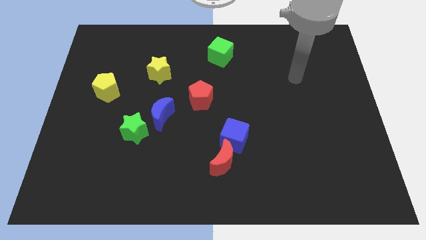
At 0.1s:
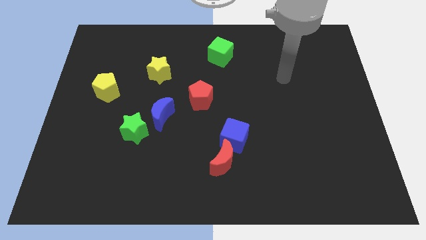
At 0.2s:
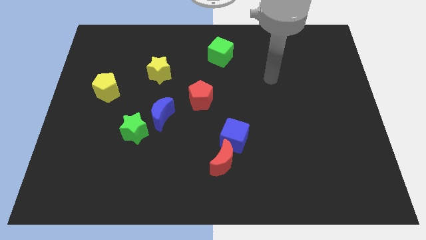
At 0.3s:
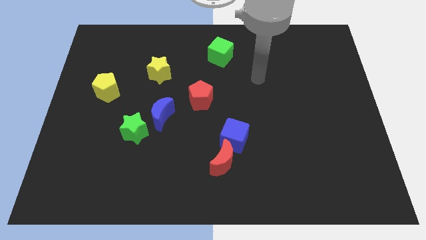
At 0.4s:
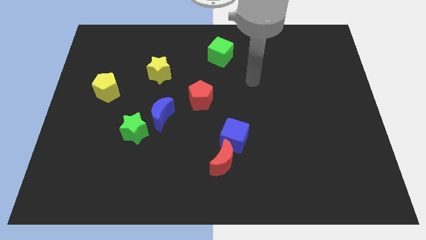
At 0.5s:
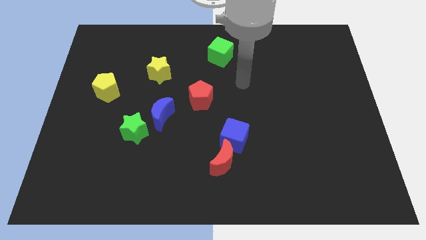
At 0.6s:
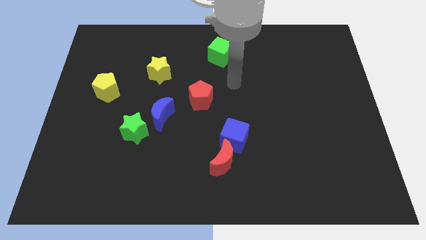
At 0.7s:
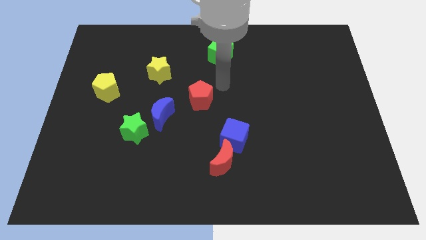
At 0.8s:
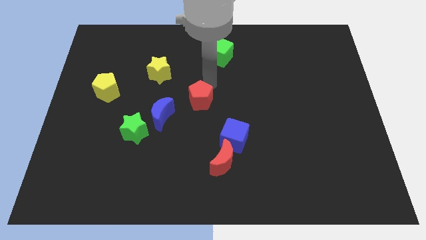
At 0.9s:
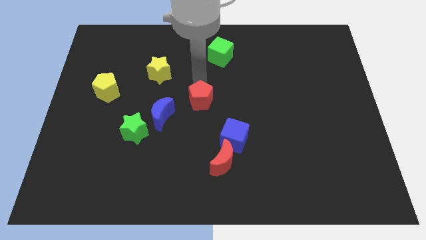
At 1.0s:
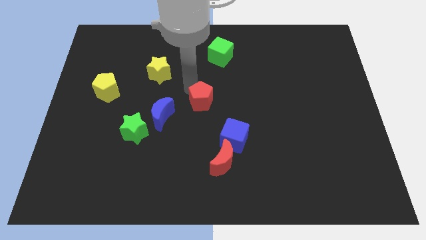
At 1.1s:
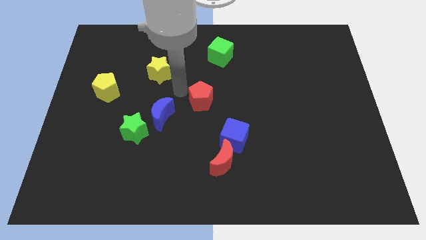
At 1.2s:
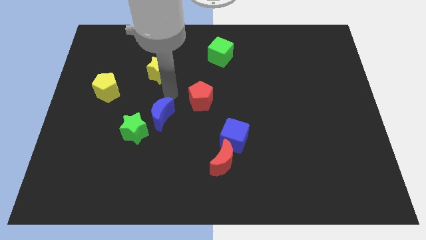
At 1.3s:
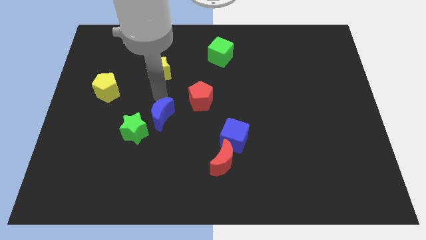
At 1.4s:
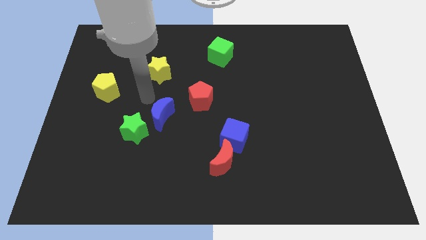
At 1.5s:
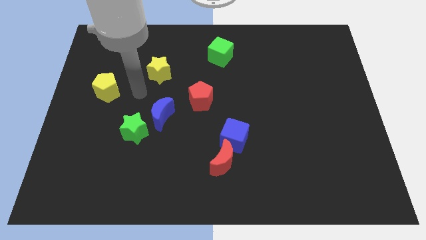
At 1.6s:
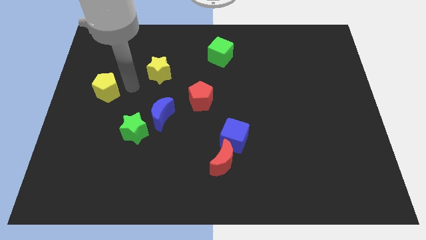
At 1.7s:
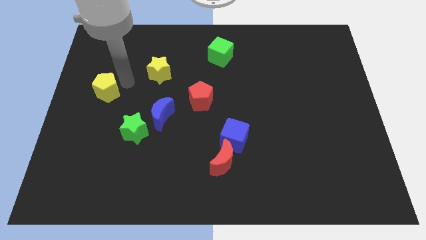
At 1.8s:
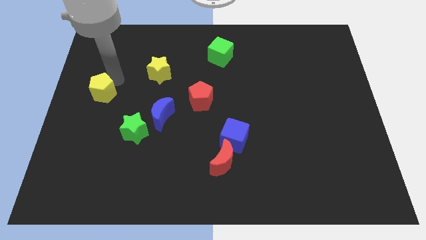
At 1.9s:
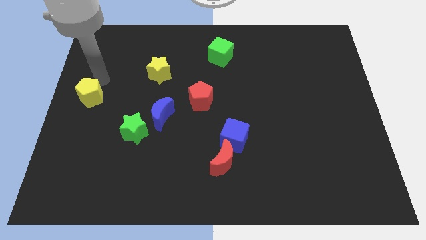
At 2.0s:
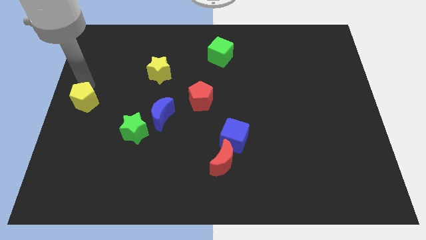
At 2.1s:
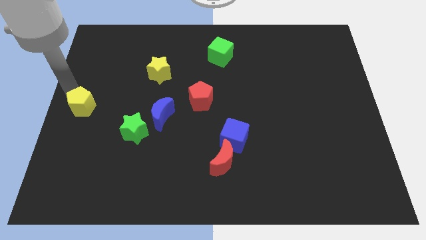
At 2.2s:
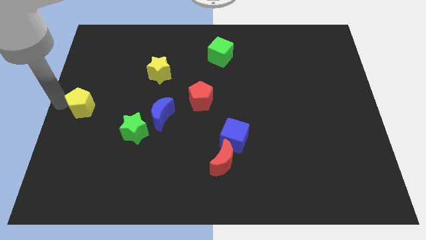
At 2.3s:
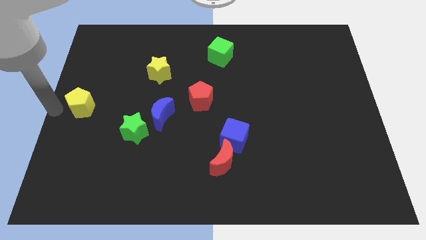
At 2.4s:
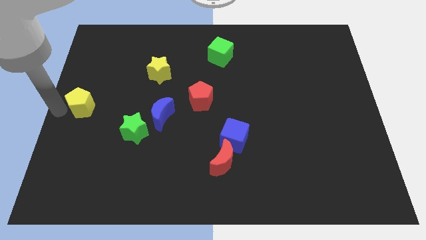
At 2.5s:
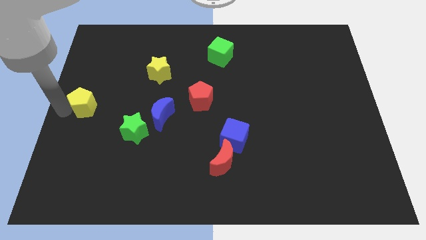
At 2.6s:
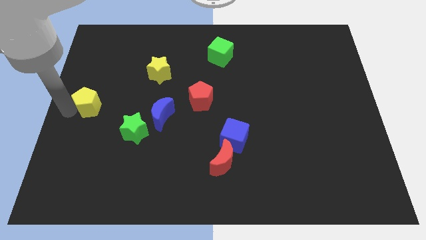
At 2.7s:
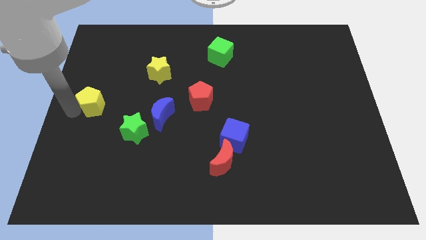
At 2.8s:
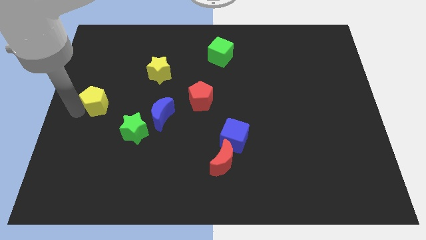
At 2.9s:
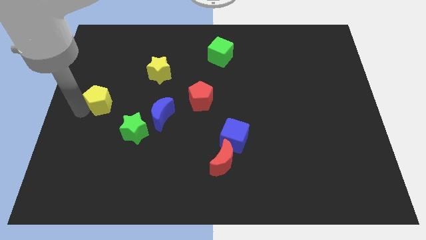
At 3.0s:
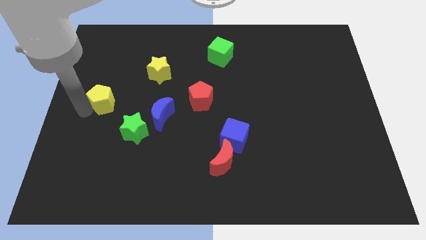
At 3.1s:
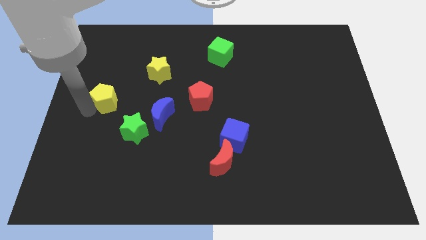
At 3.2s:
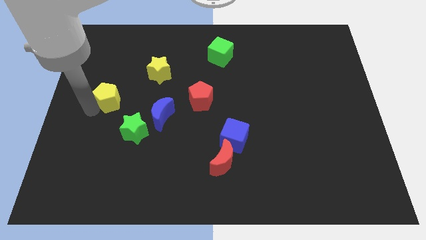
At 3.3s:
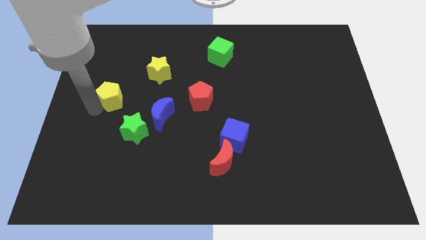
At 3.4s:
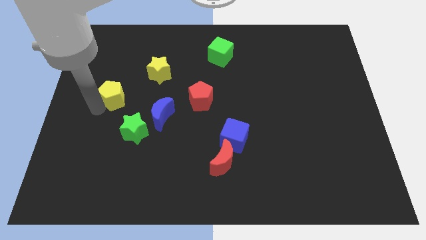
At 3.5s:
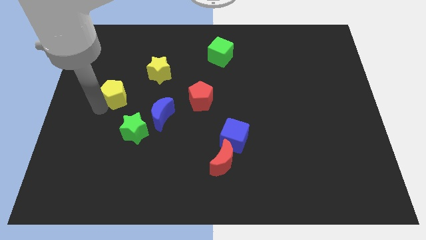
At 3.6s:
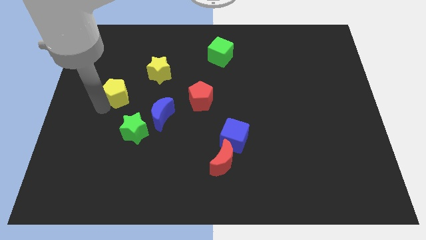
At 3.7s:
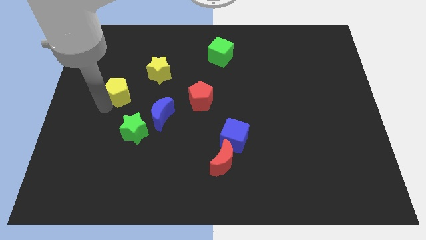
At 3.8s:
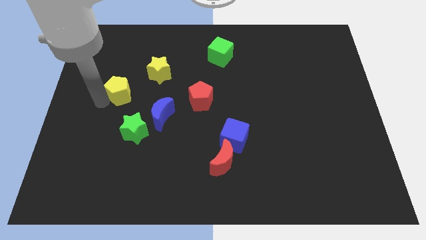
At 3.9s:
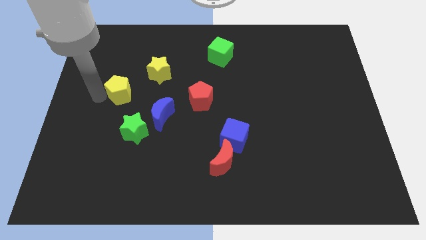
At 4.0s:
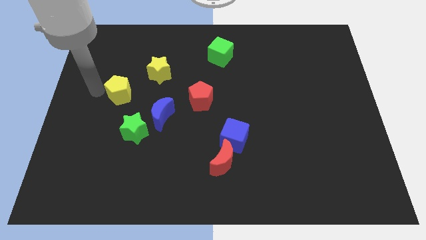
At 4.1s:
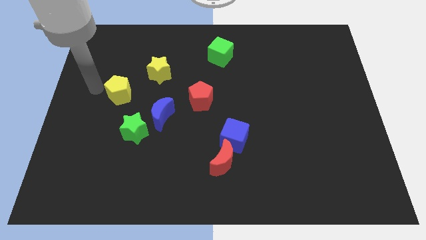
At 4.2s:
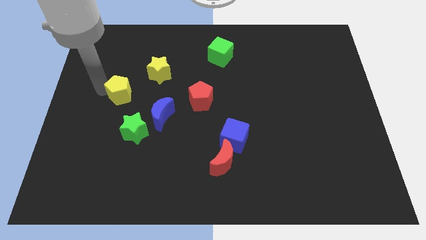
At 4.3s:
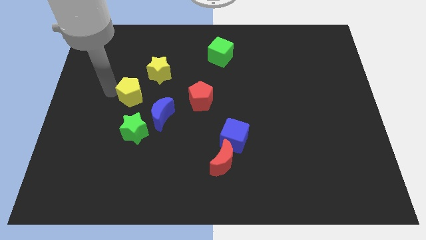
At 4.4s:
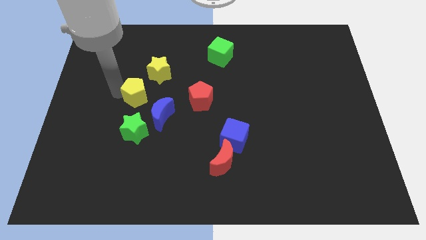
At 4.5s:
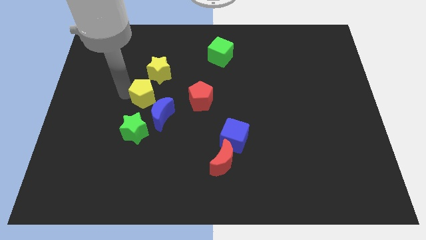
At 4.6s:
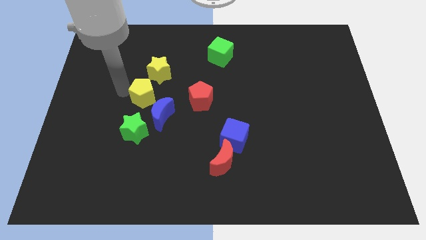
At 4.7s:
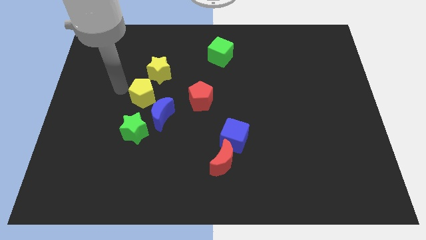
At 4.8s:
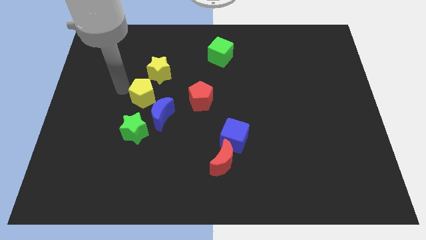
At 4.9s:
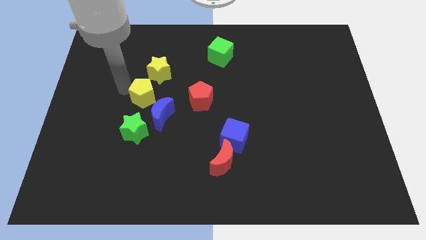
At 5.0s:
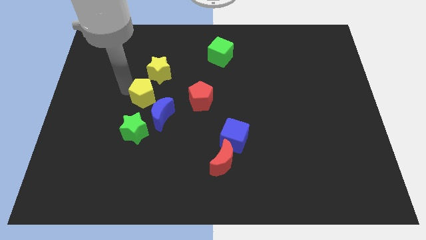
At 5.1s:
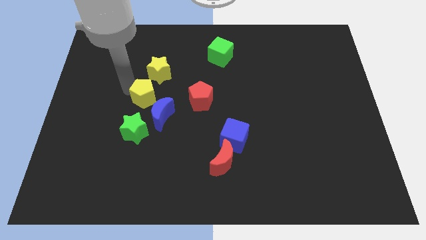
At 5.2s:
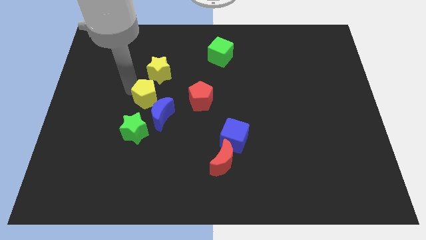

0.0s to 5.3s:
push the yellow pentagon downwards and right diagonally somewhat

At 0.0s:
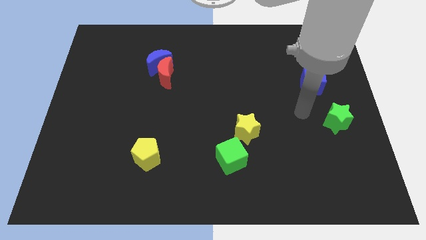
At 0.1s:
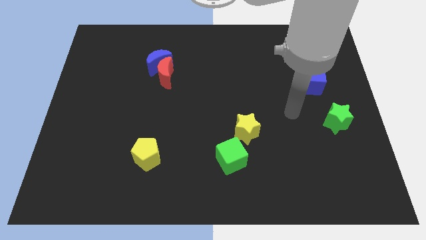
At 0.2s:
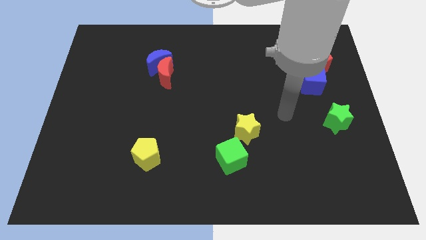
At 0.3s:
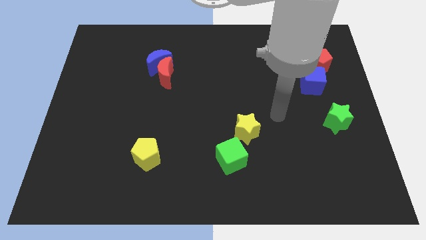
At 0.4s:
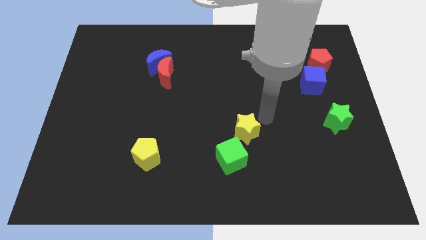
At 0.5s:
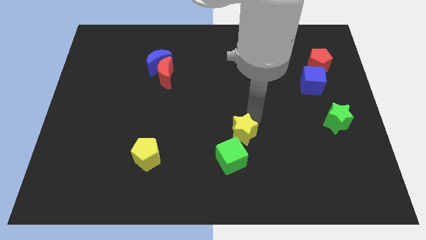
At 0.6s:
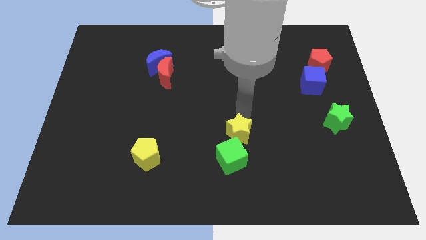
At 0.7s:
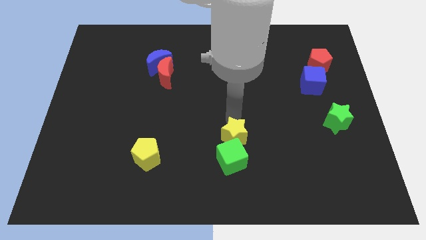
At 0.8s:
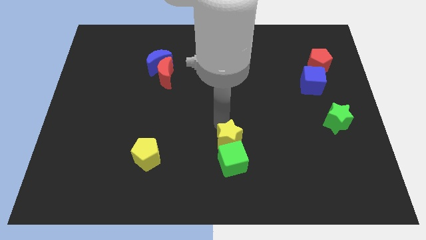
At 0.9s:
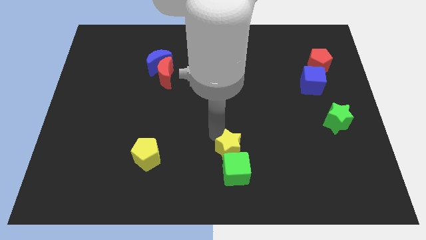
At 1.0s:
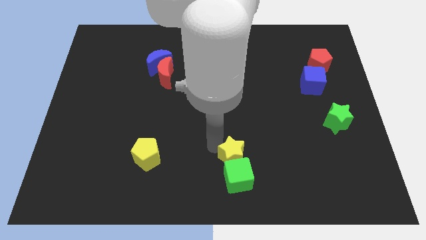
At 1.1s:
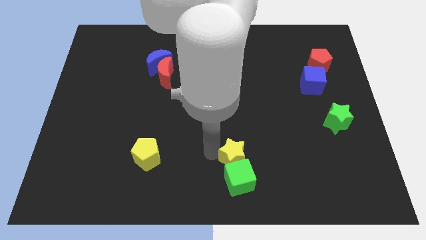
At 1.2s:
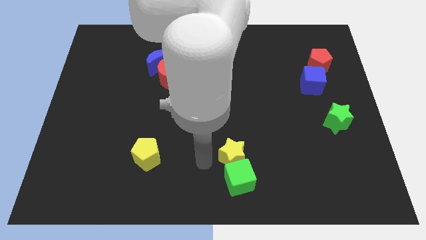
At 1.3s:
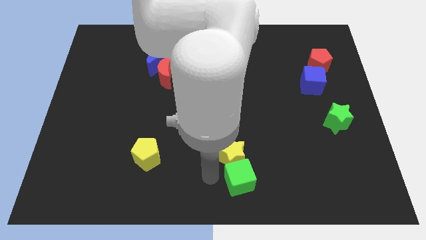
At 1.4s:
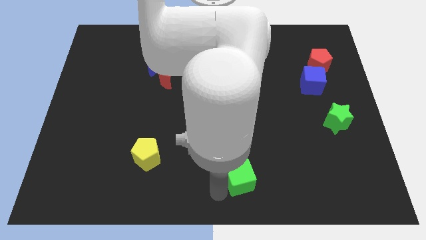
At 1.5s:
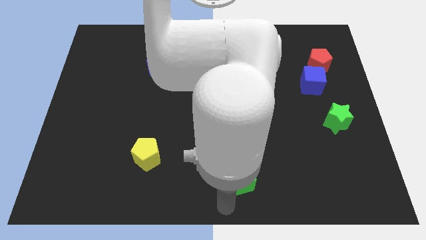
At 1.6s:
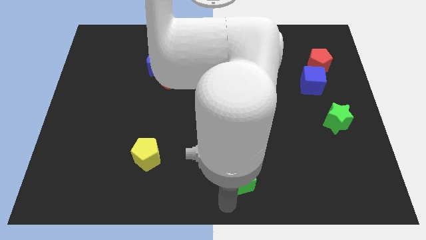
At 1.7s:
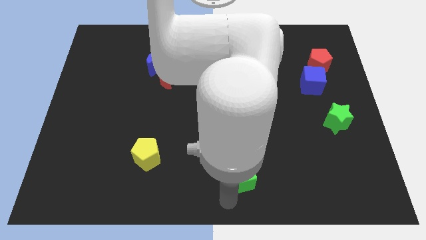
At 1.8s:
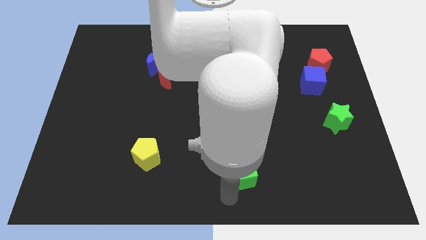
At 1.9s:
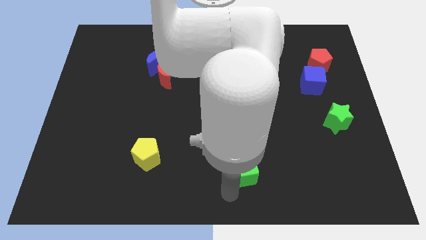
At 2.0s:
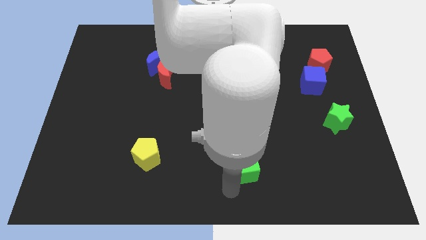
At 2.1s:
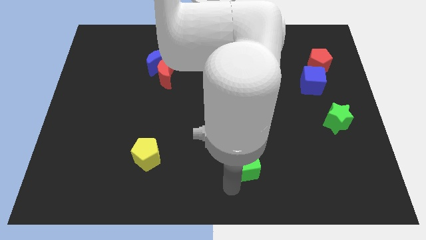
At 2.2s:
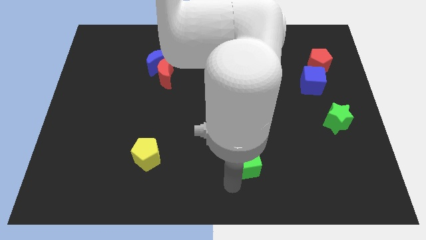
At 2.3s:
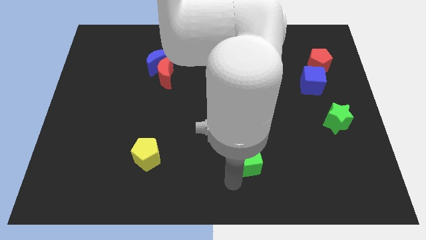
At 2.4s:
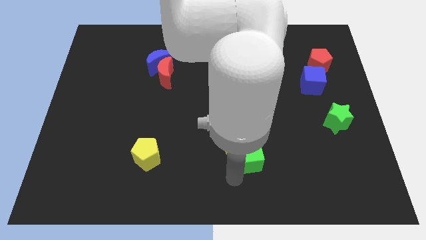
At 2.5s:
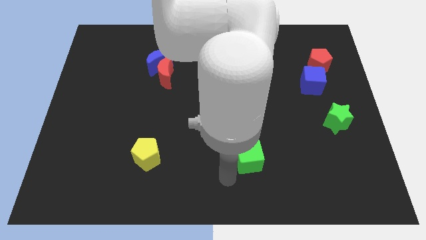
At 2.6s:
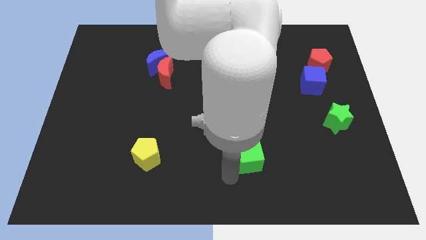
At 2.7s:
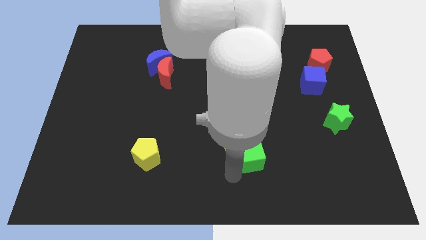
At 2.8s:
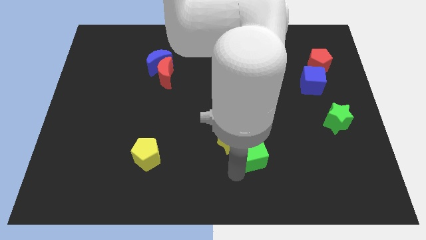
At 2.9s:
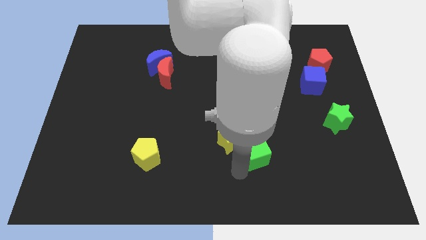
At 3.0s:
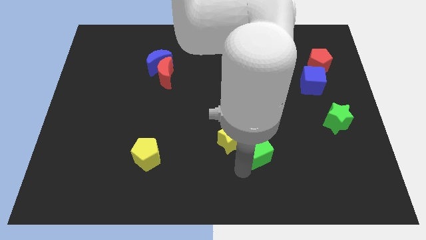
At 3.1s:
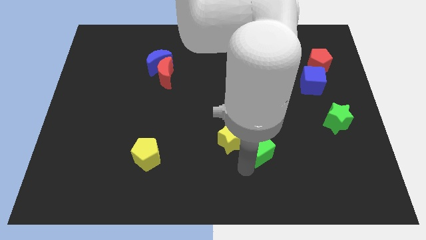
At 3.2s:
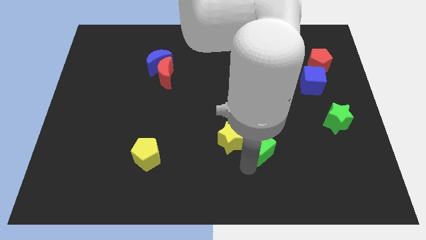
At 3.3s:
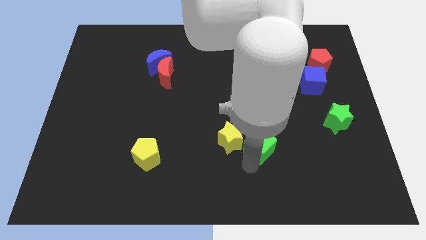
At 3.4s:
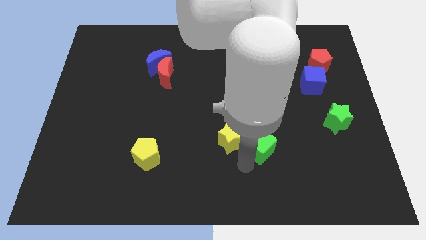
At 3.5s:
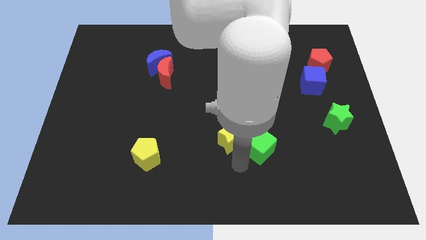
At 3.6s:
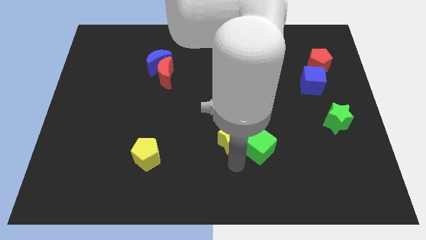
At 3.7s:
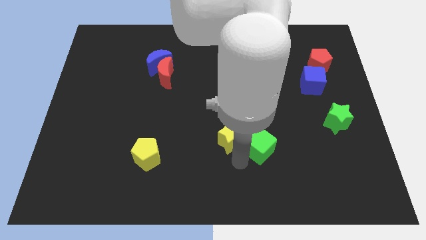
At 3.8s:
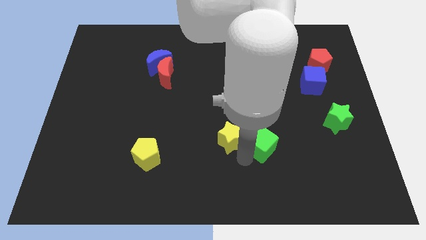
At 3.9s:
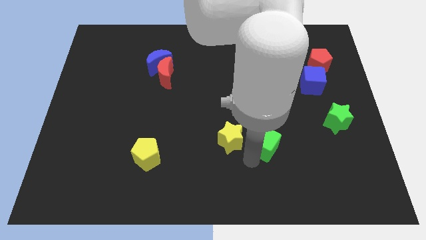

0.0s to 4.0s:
slightly slide the green cube upwards and right
